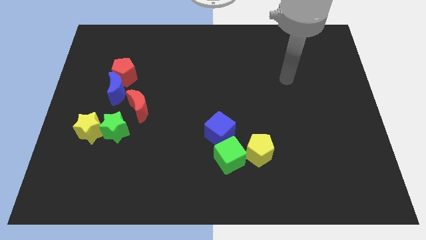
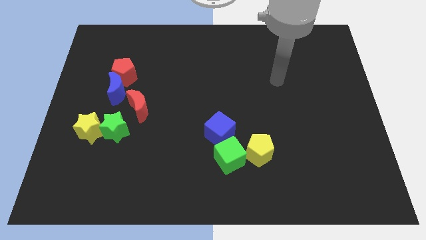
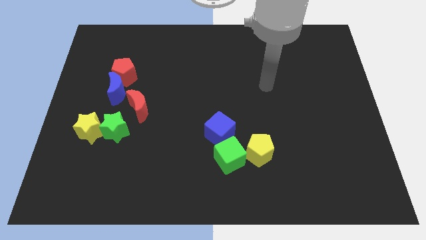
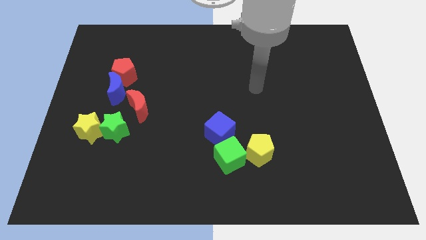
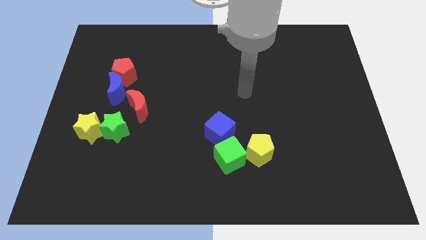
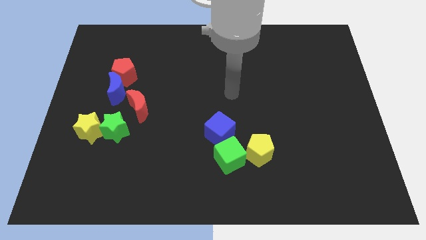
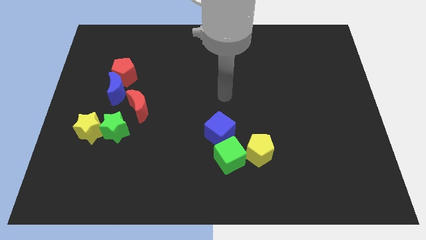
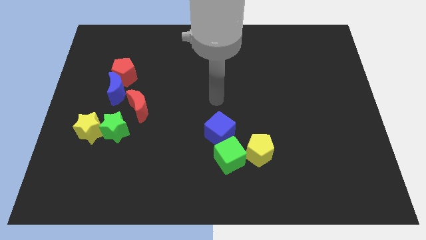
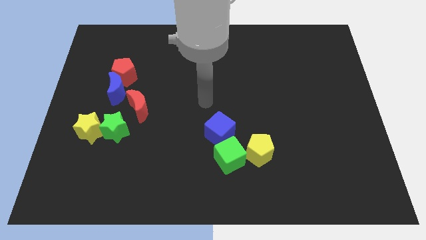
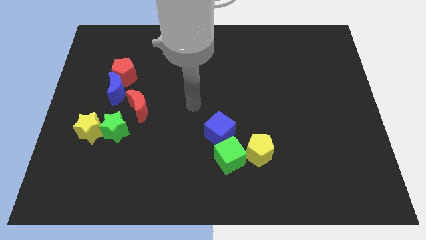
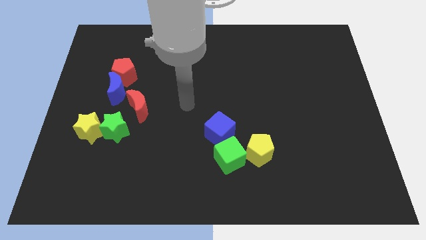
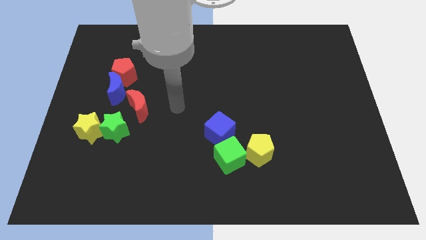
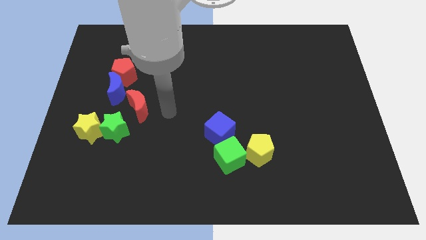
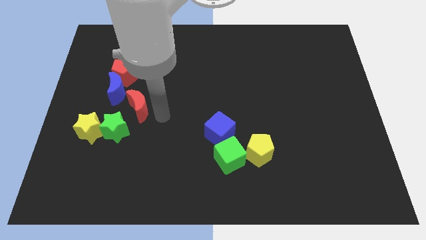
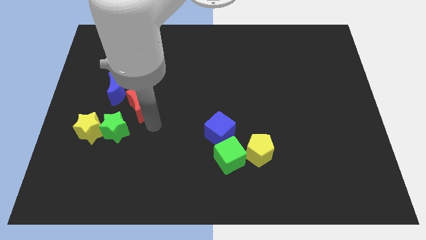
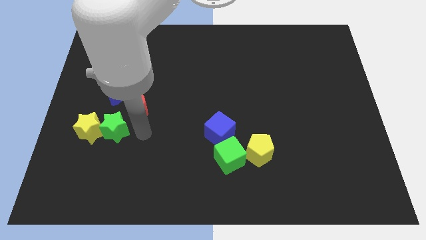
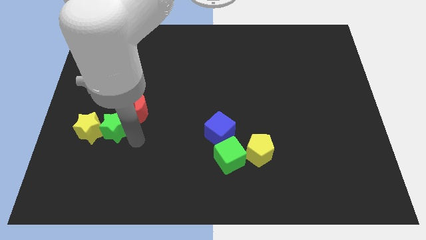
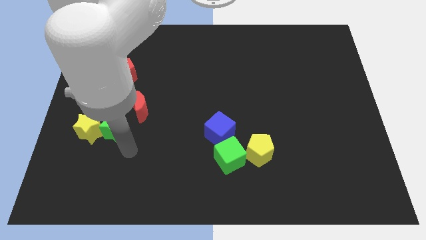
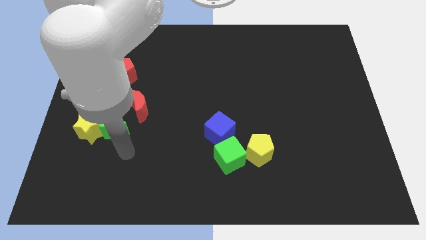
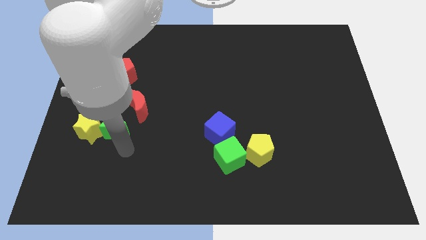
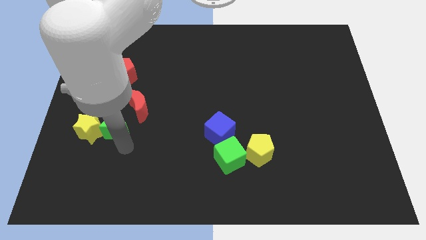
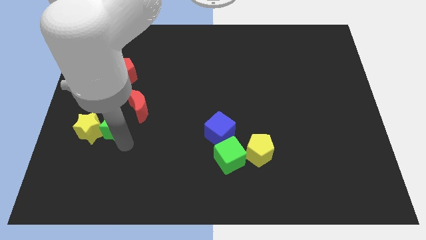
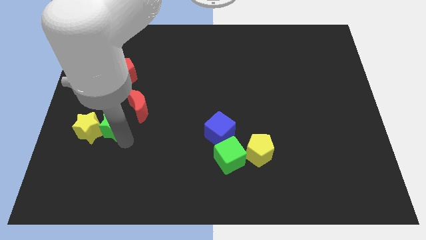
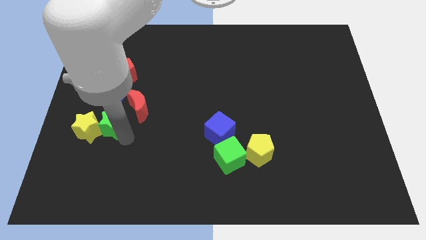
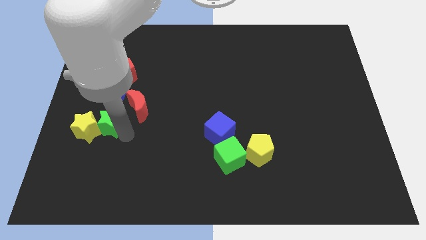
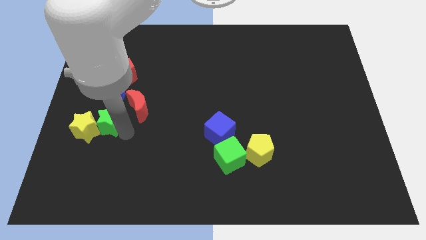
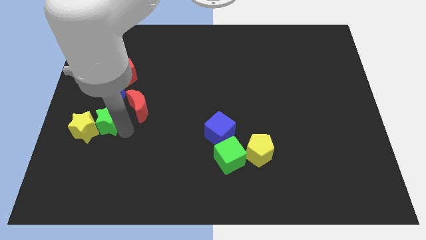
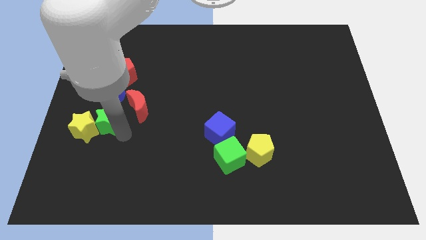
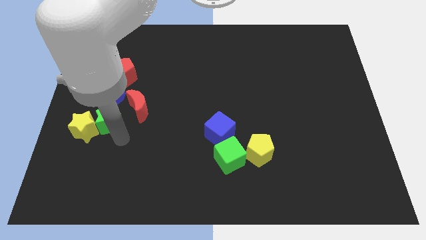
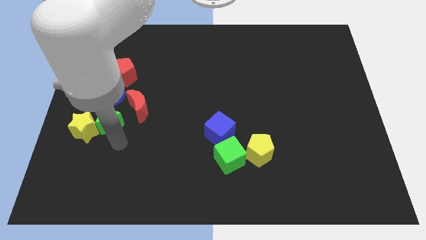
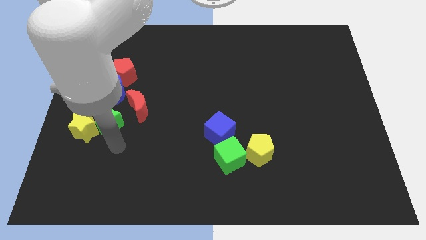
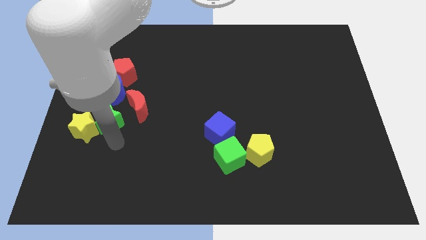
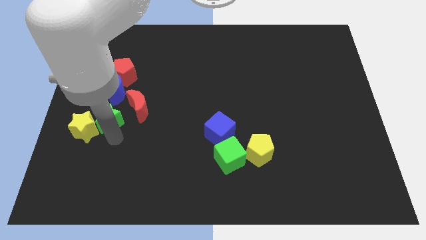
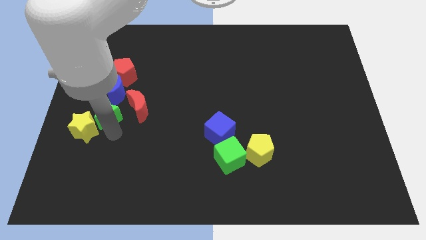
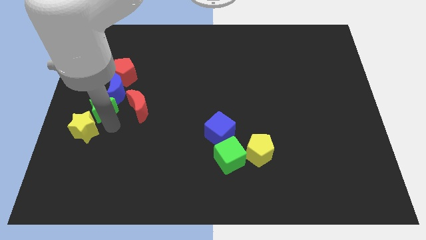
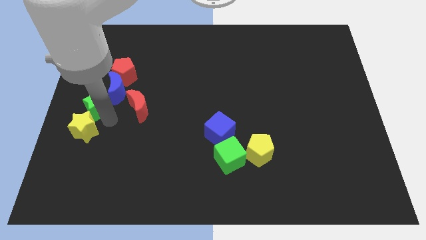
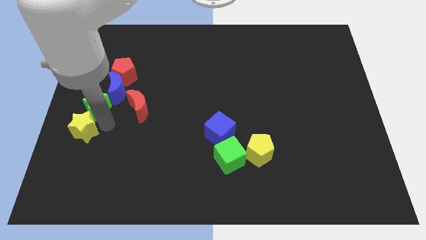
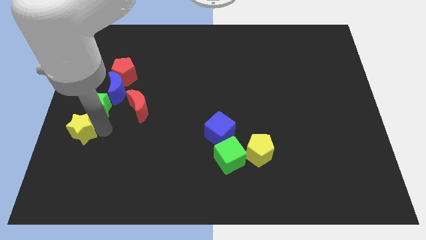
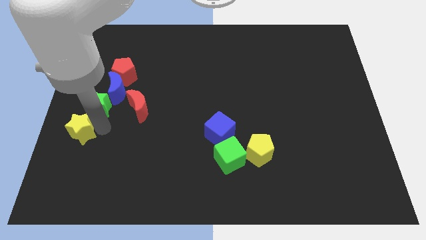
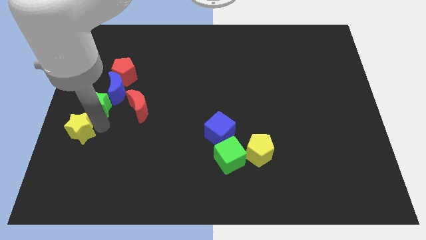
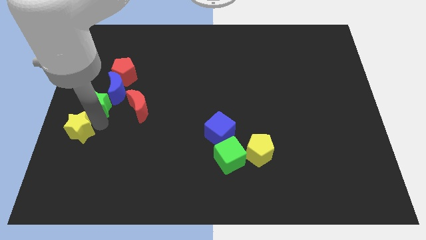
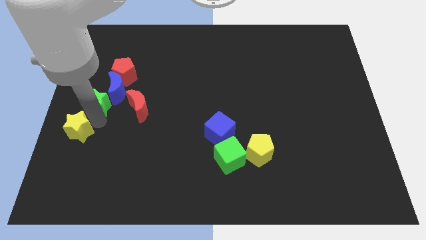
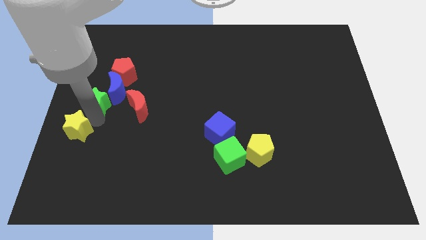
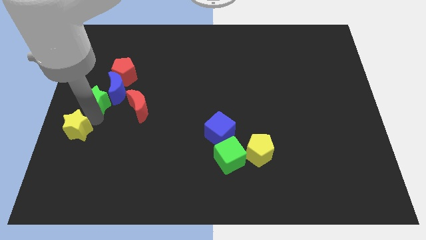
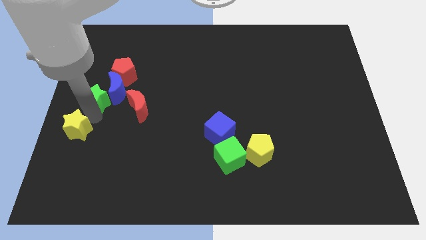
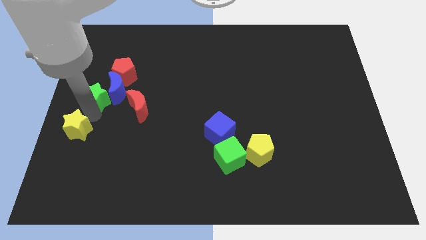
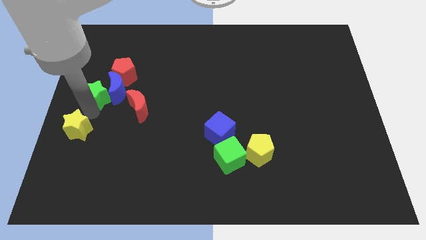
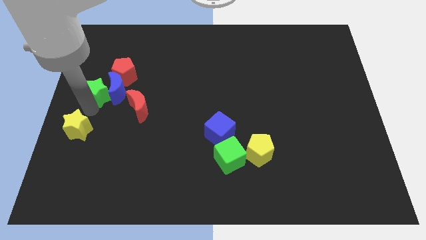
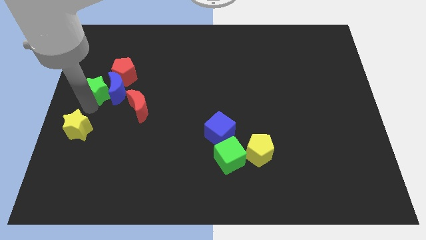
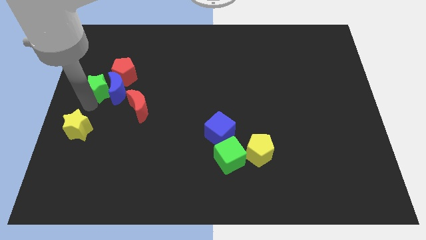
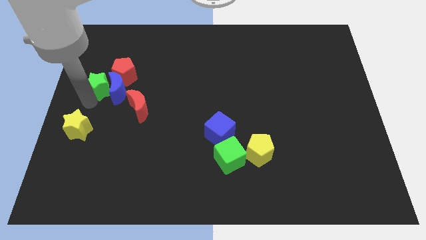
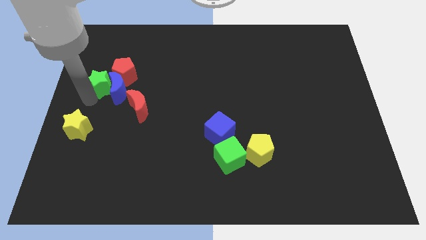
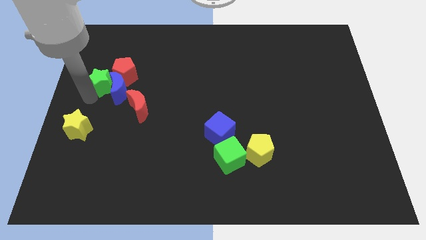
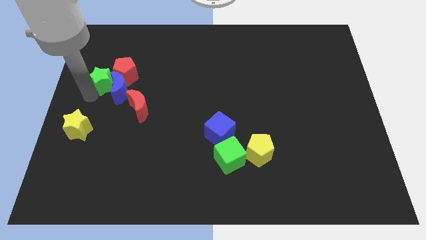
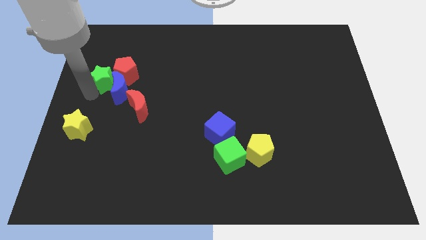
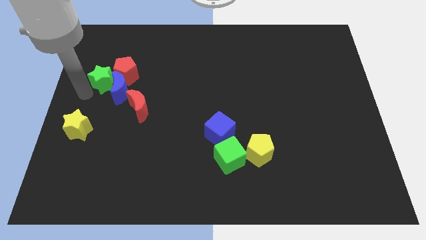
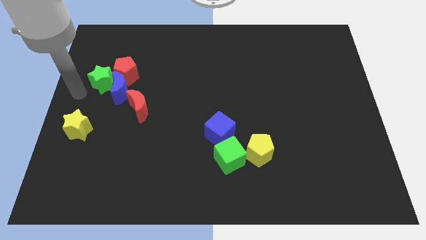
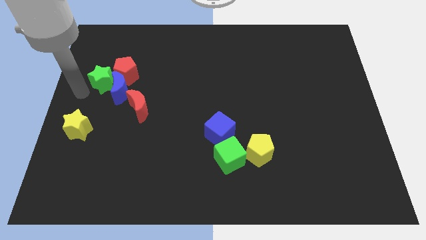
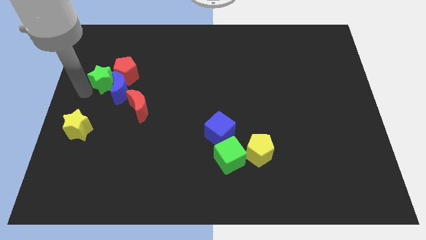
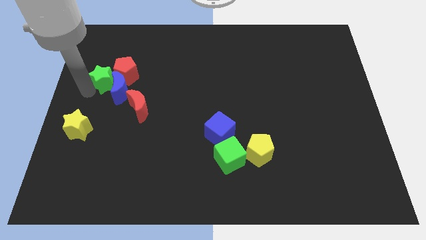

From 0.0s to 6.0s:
push the green star close to the red pentagon
